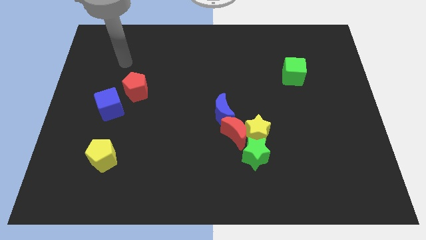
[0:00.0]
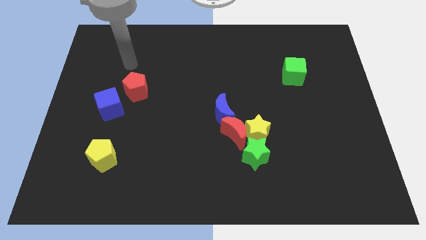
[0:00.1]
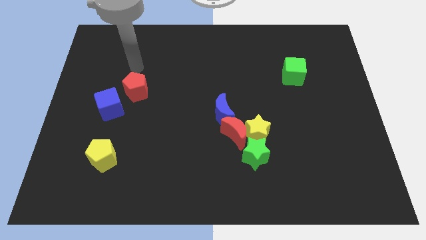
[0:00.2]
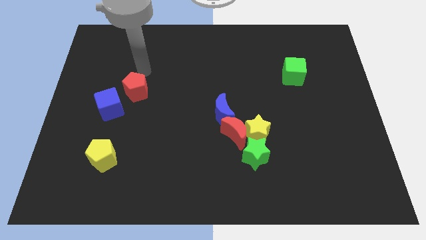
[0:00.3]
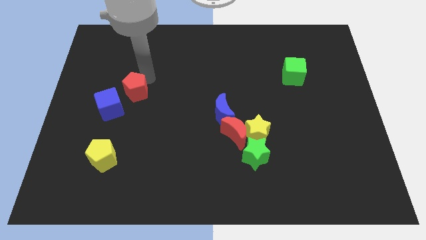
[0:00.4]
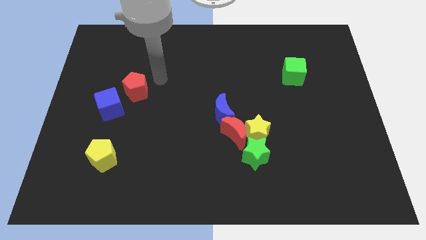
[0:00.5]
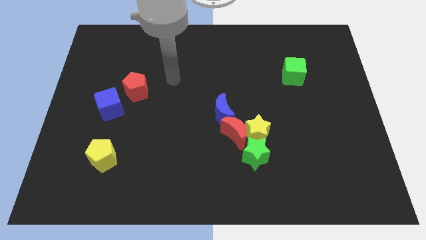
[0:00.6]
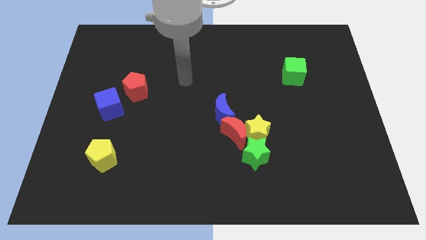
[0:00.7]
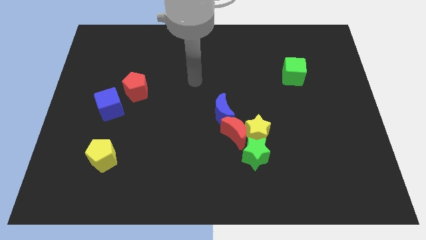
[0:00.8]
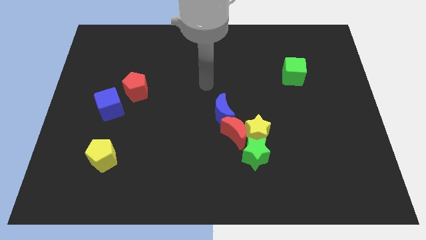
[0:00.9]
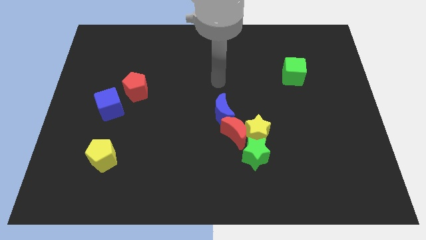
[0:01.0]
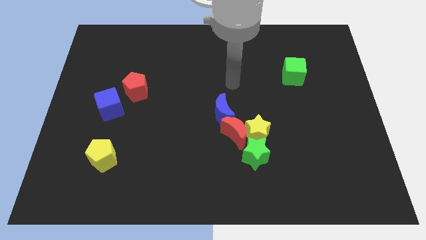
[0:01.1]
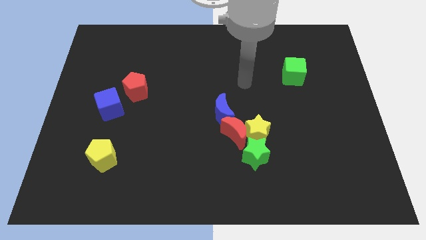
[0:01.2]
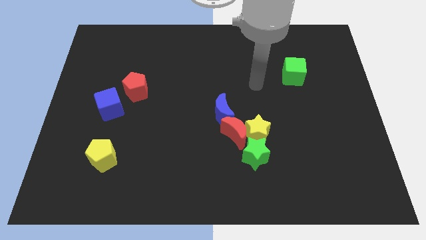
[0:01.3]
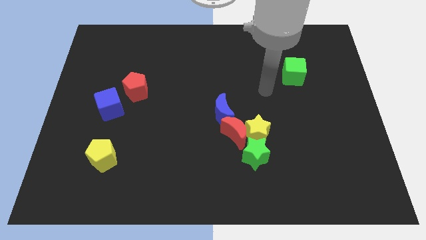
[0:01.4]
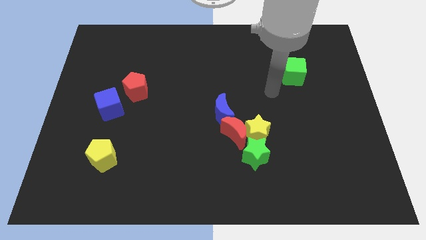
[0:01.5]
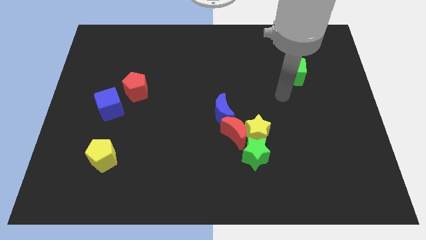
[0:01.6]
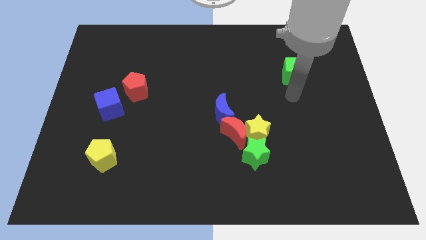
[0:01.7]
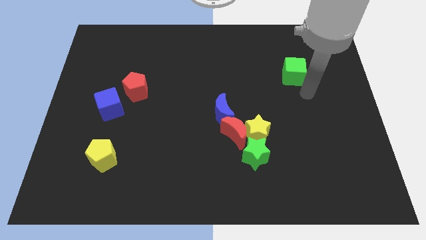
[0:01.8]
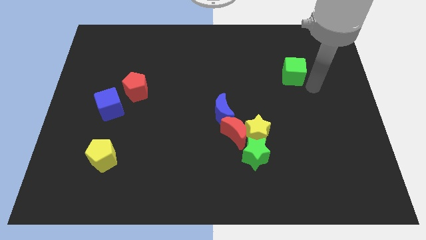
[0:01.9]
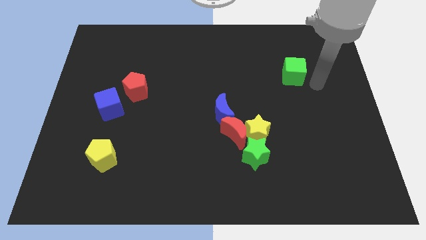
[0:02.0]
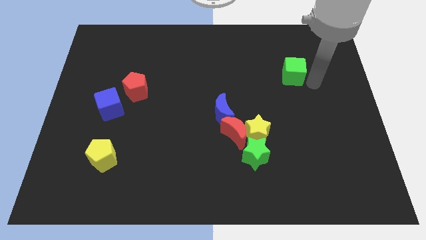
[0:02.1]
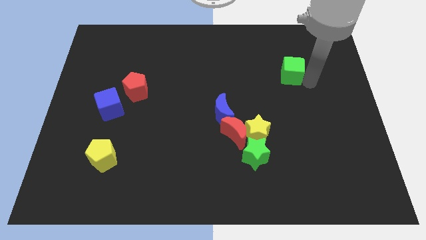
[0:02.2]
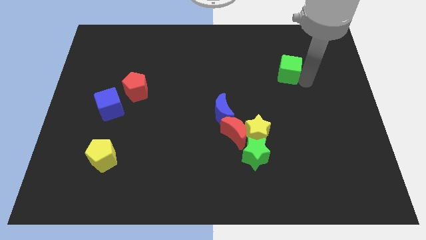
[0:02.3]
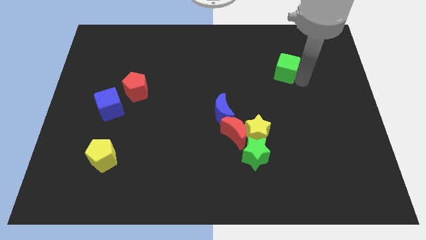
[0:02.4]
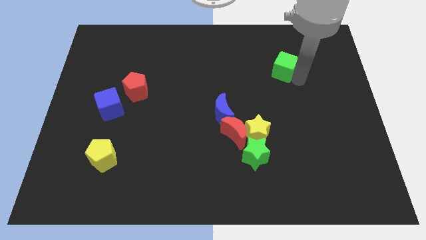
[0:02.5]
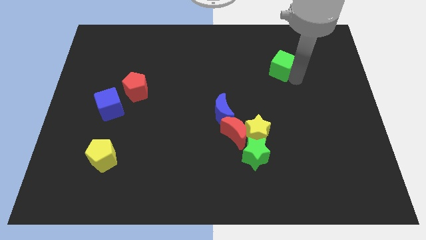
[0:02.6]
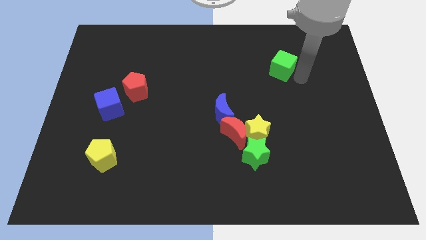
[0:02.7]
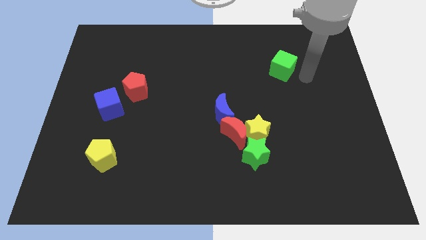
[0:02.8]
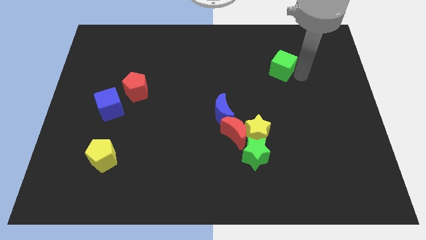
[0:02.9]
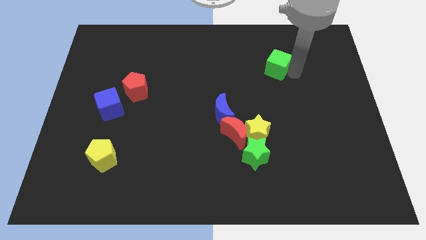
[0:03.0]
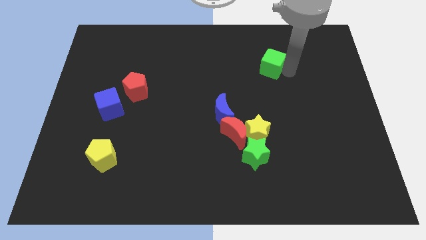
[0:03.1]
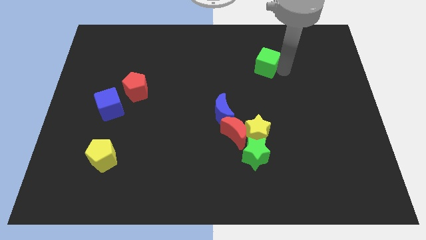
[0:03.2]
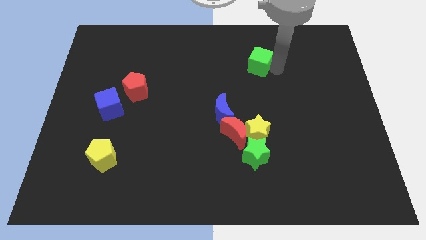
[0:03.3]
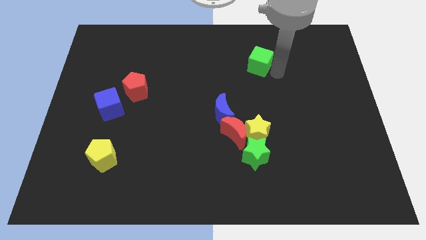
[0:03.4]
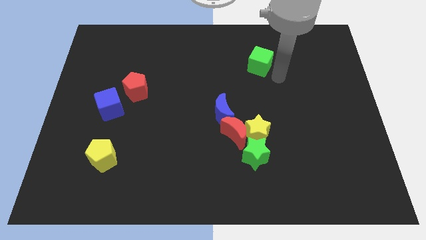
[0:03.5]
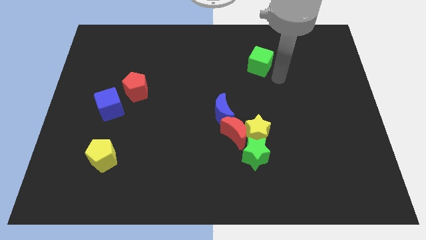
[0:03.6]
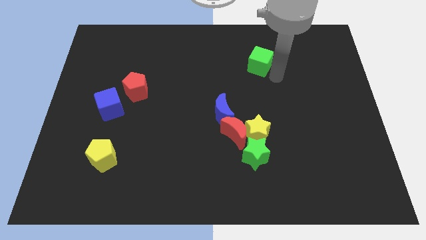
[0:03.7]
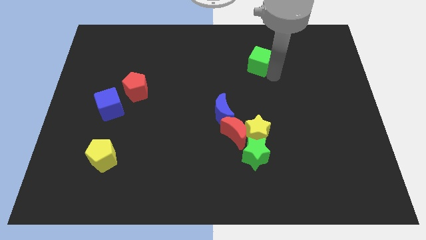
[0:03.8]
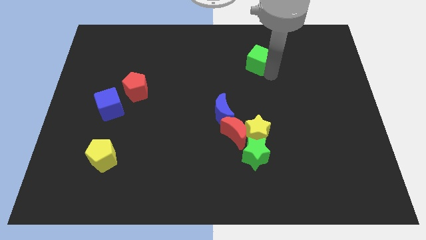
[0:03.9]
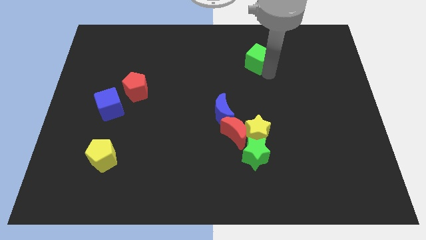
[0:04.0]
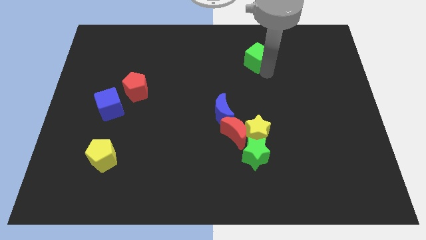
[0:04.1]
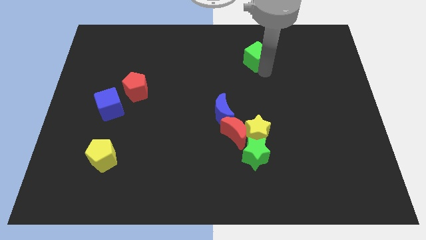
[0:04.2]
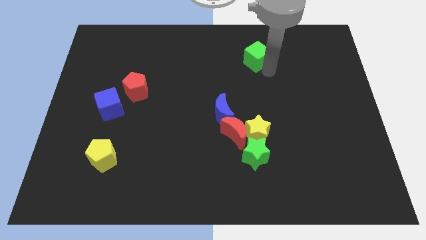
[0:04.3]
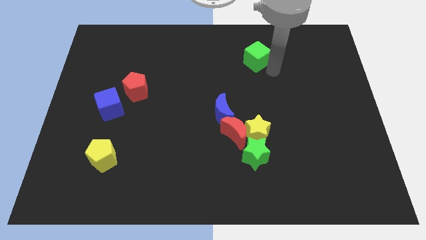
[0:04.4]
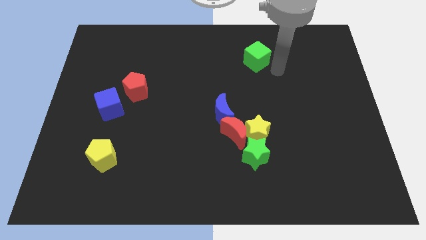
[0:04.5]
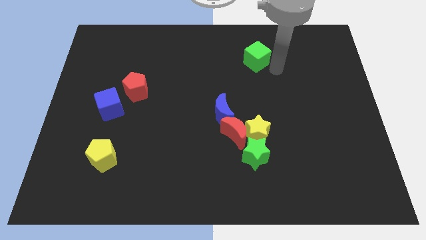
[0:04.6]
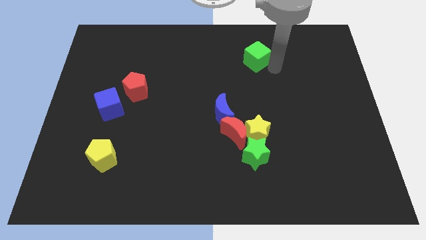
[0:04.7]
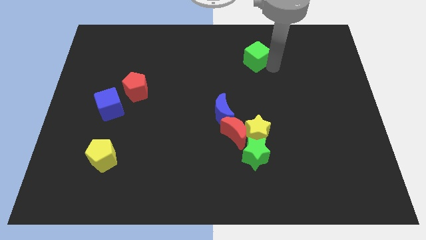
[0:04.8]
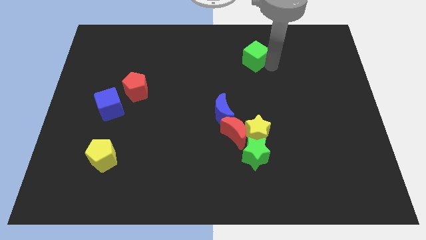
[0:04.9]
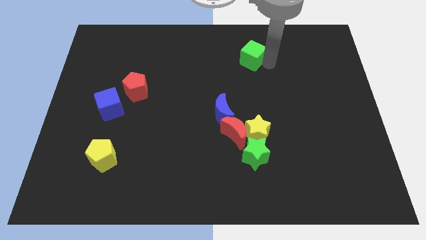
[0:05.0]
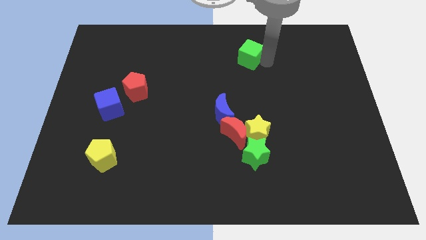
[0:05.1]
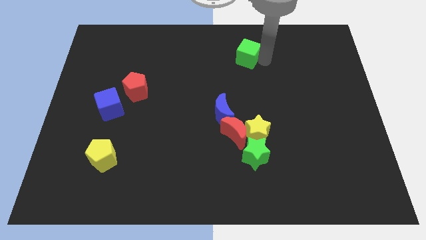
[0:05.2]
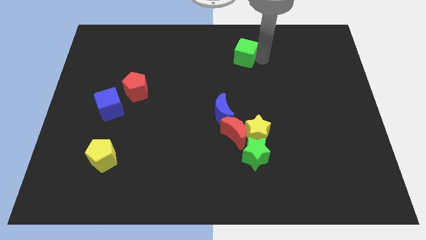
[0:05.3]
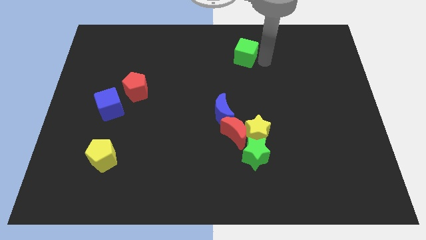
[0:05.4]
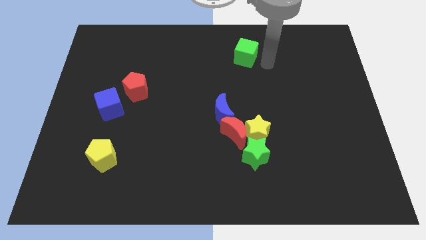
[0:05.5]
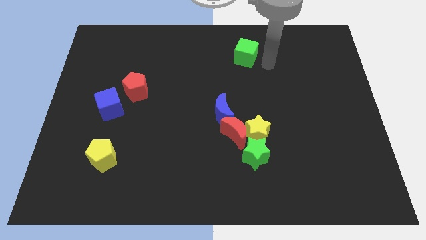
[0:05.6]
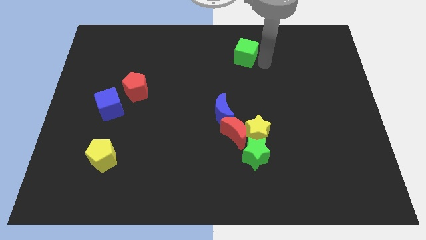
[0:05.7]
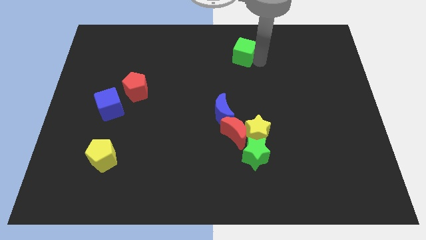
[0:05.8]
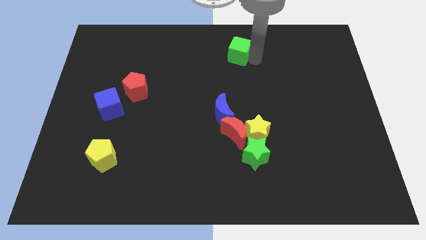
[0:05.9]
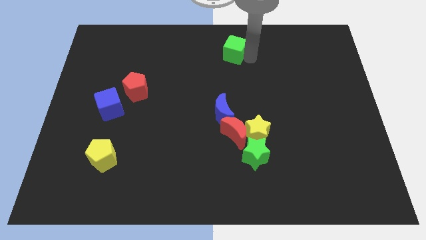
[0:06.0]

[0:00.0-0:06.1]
put the green cube to the towards your base

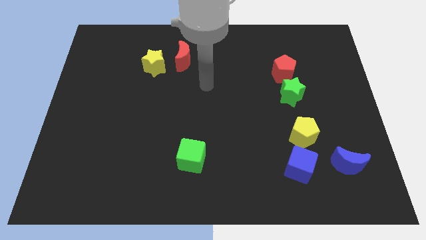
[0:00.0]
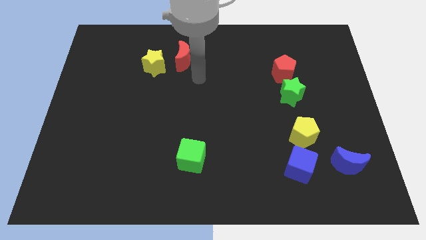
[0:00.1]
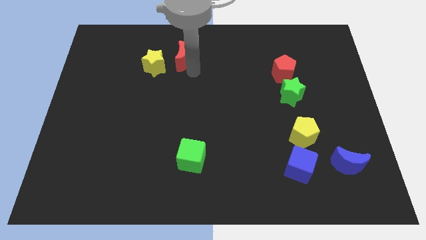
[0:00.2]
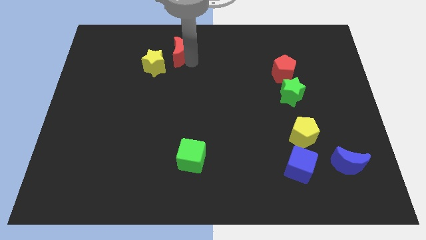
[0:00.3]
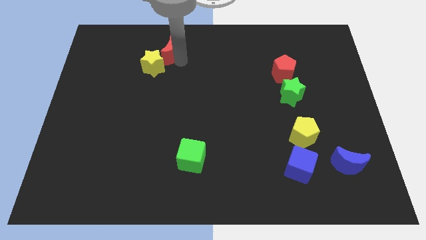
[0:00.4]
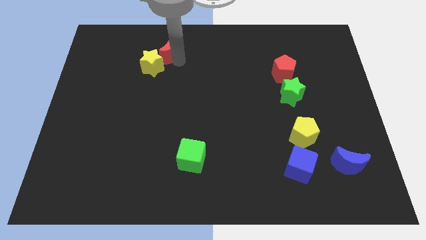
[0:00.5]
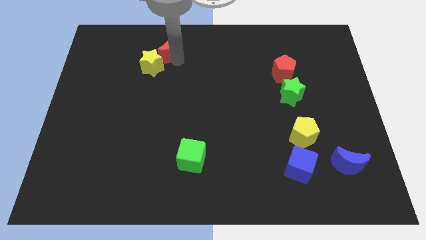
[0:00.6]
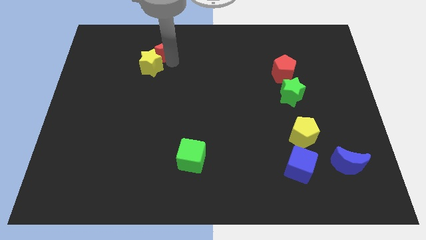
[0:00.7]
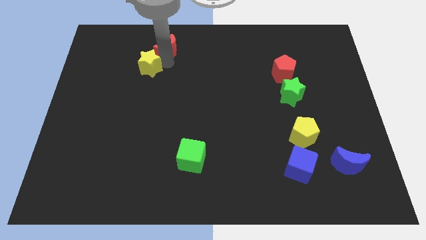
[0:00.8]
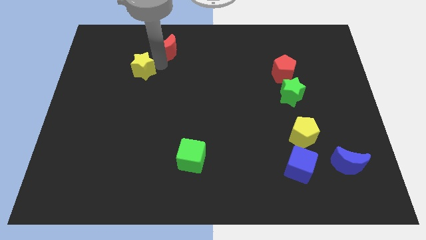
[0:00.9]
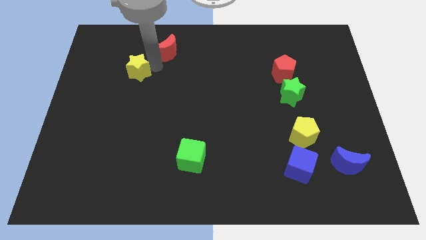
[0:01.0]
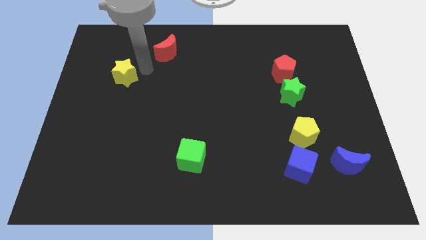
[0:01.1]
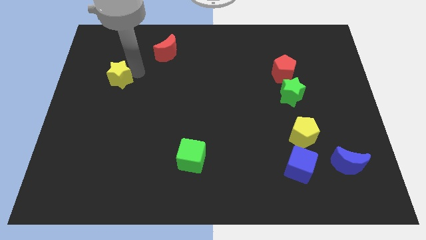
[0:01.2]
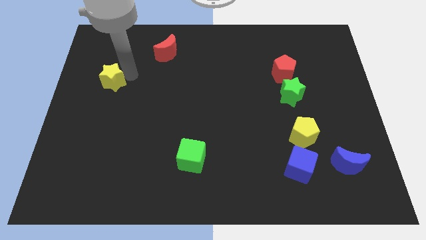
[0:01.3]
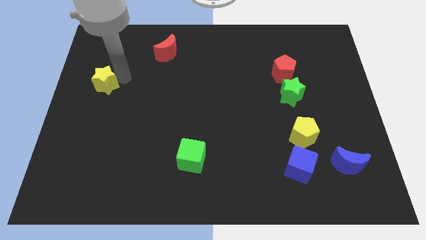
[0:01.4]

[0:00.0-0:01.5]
put the yellow star to the left side

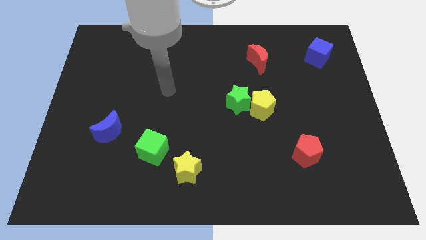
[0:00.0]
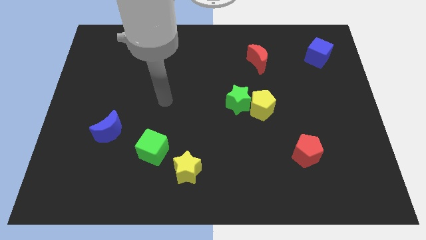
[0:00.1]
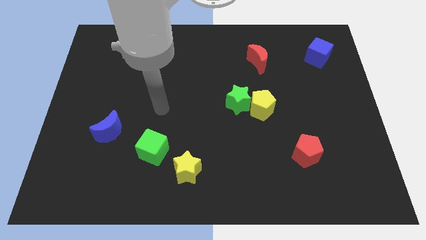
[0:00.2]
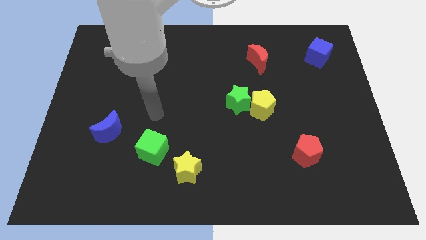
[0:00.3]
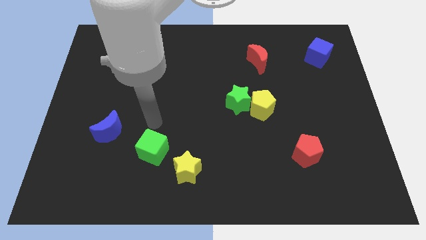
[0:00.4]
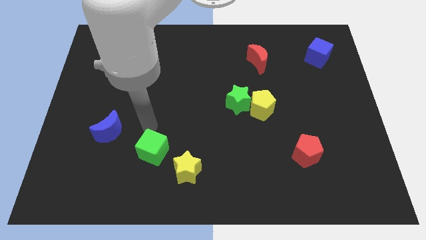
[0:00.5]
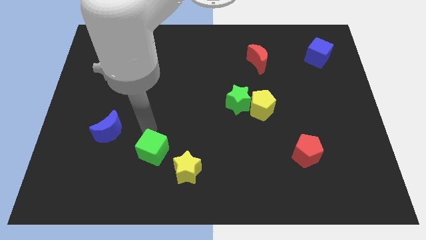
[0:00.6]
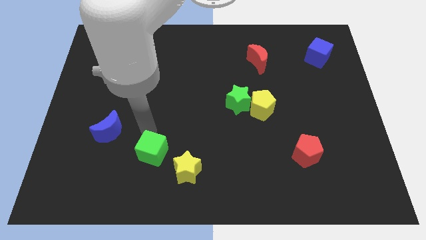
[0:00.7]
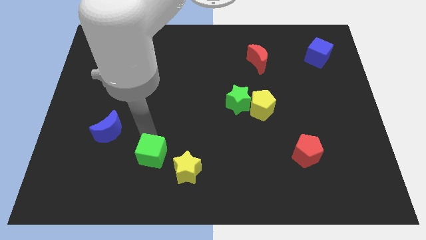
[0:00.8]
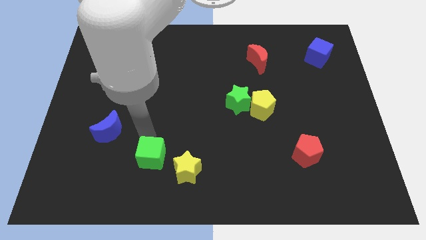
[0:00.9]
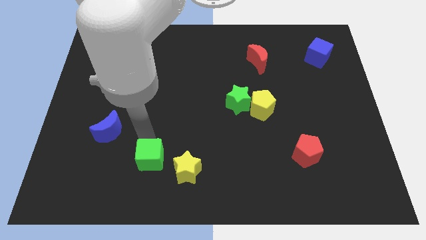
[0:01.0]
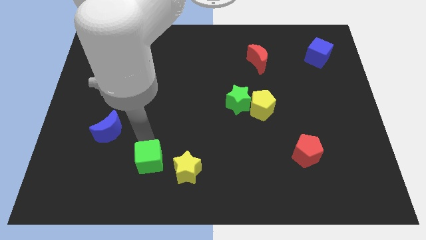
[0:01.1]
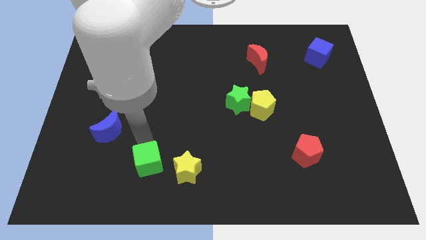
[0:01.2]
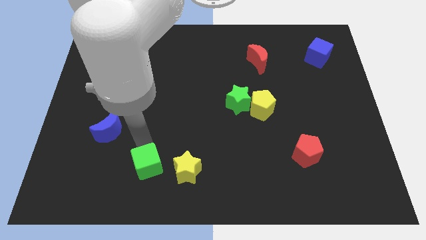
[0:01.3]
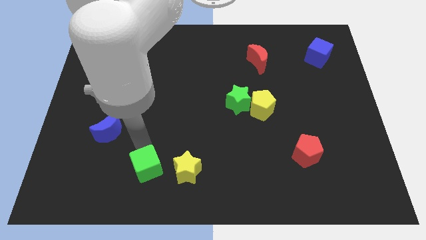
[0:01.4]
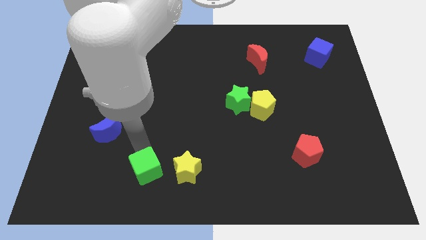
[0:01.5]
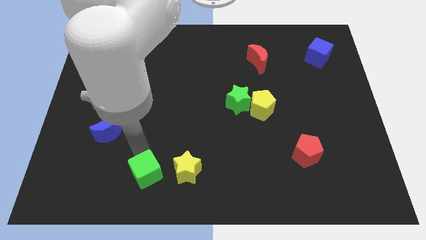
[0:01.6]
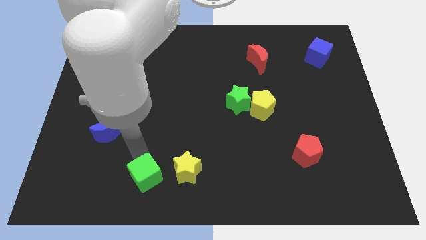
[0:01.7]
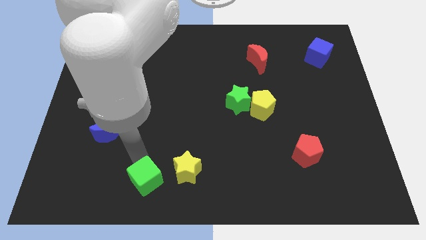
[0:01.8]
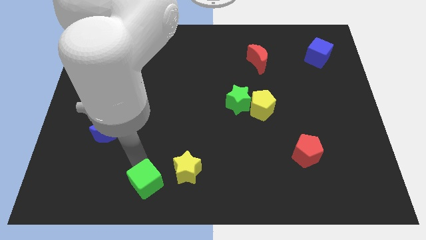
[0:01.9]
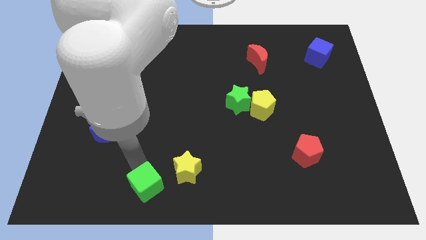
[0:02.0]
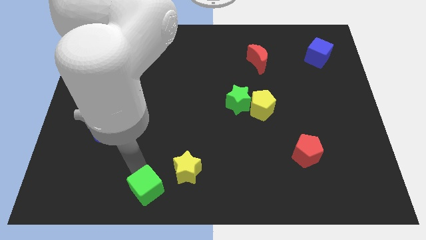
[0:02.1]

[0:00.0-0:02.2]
slide the green cube to the bottom
